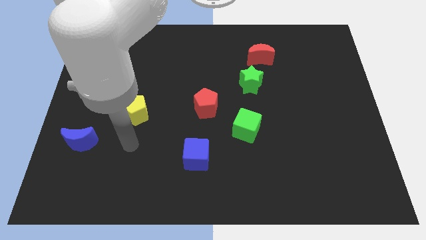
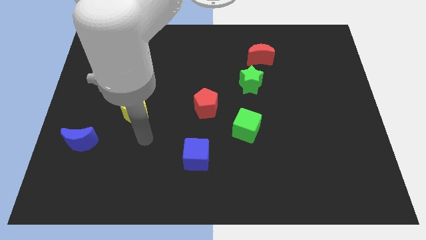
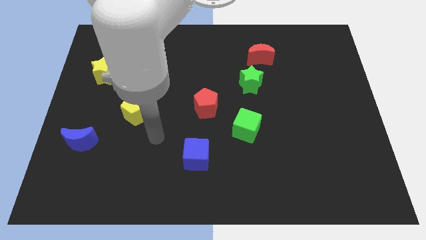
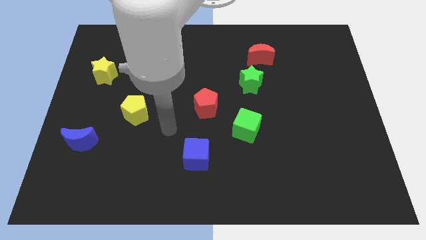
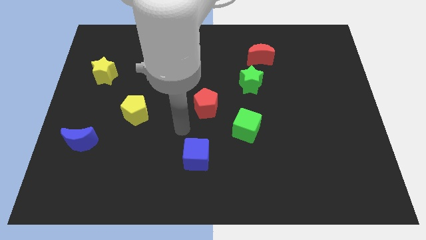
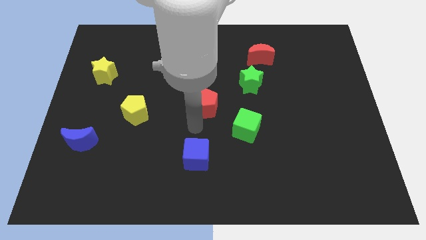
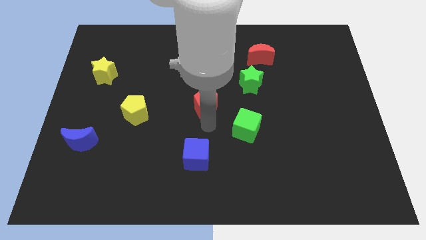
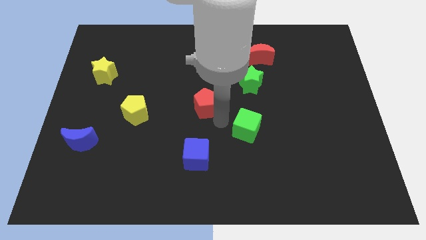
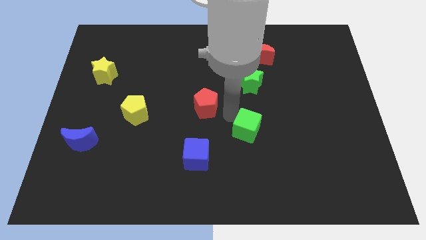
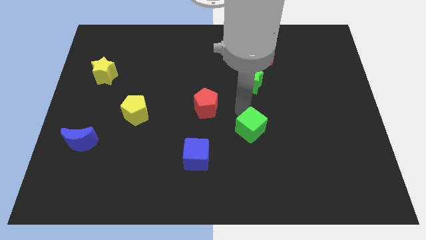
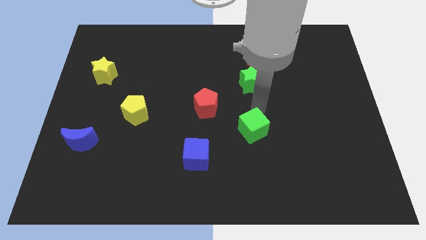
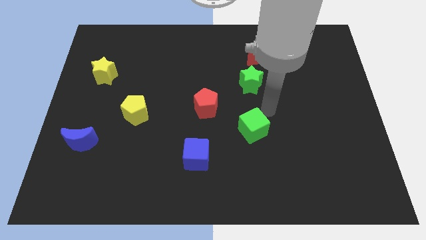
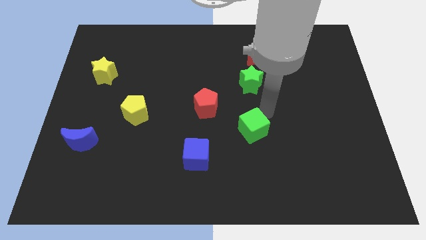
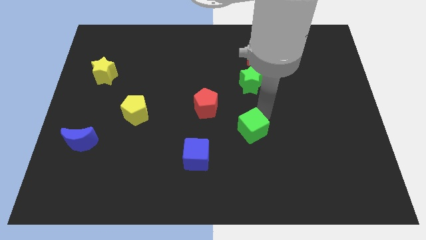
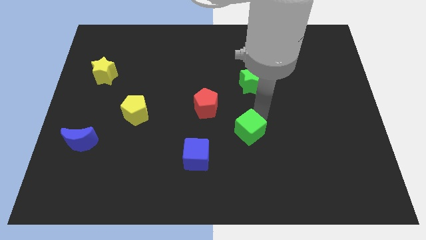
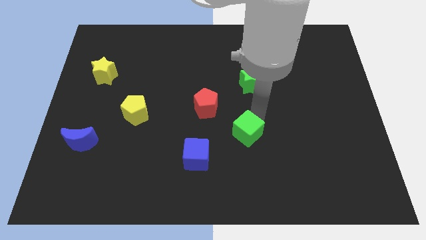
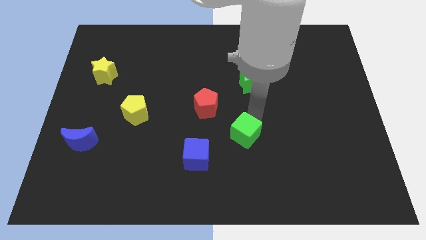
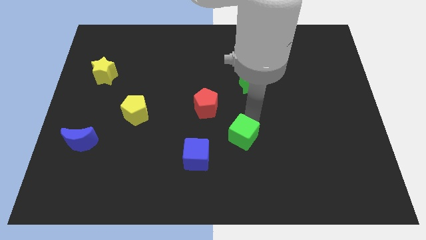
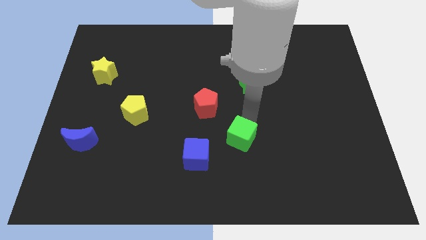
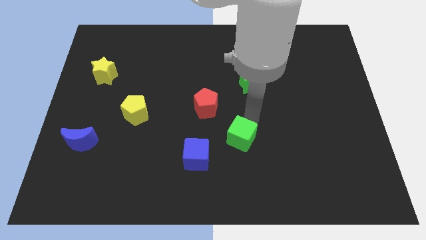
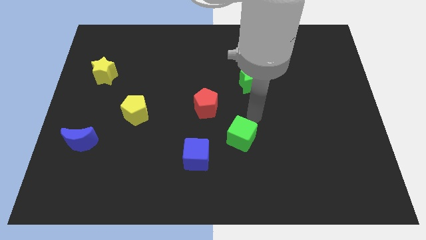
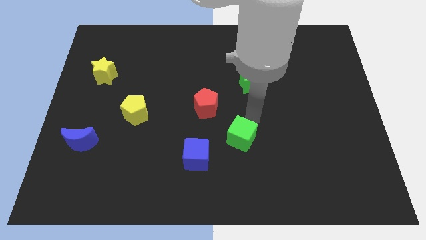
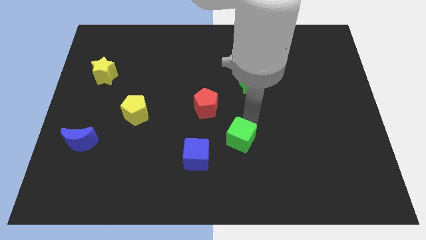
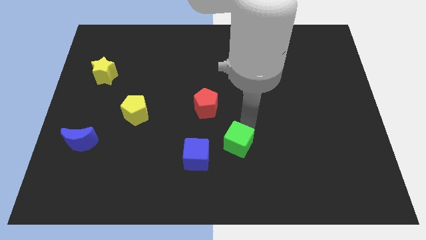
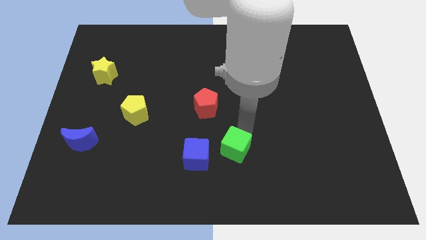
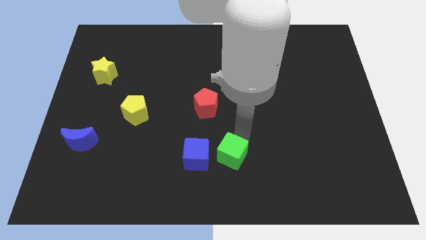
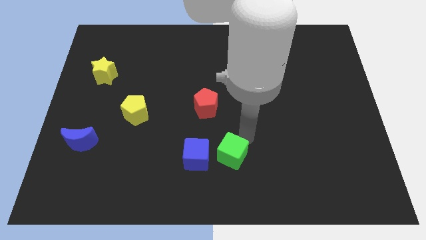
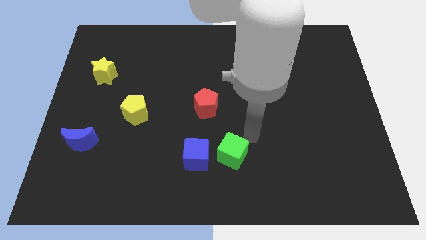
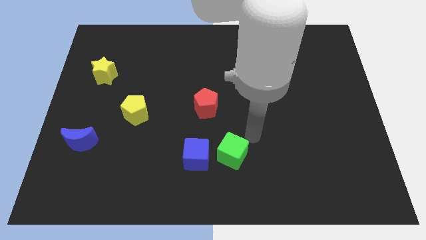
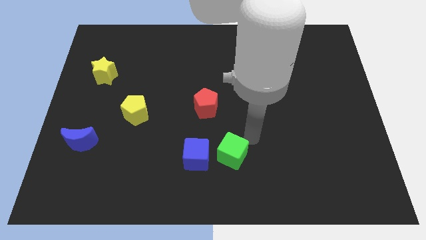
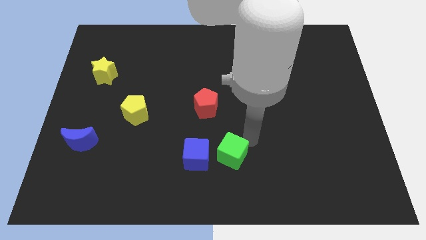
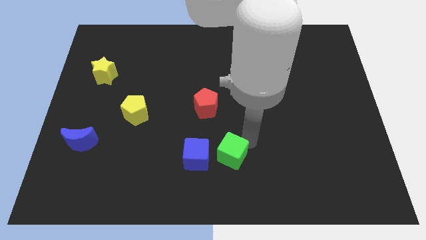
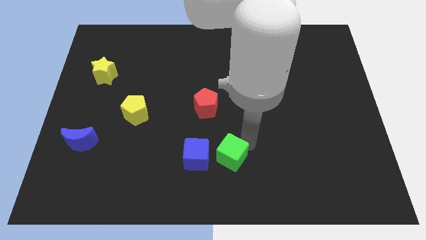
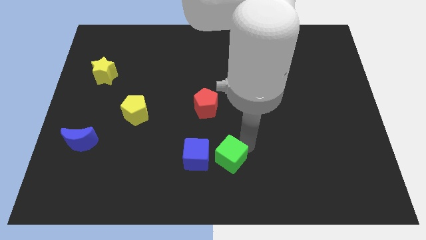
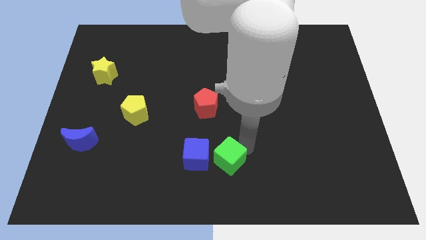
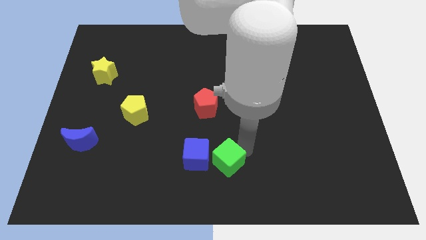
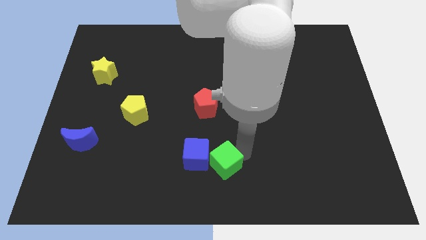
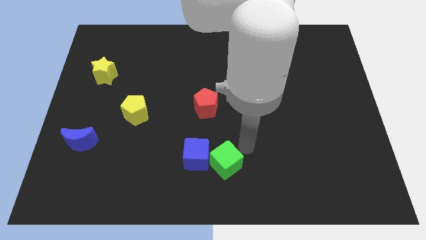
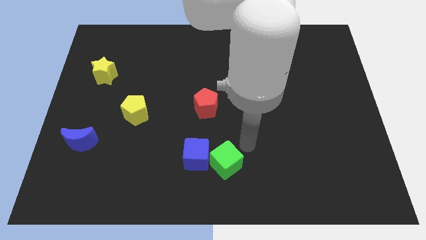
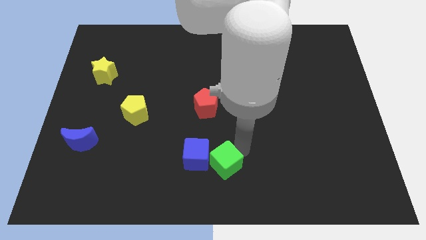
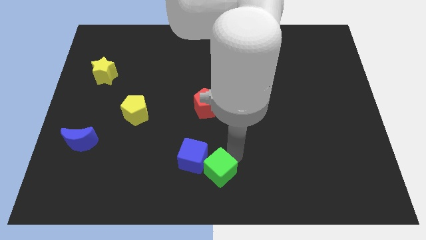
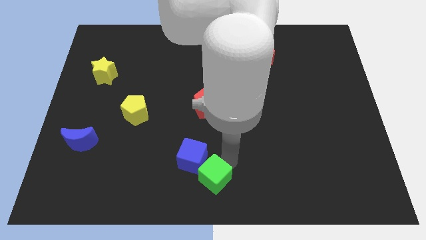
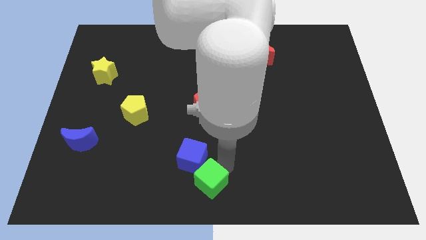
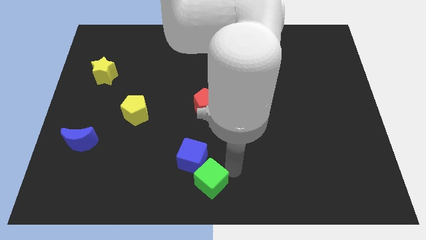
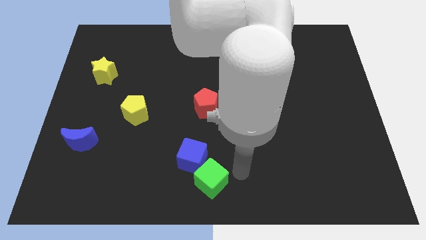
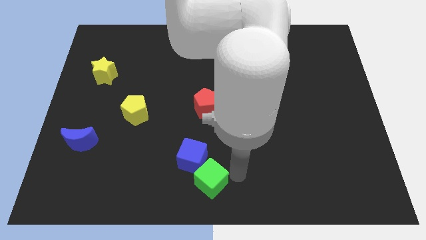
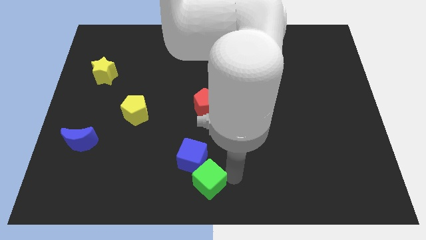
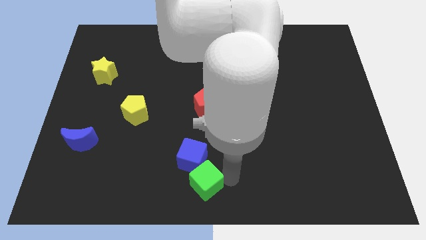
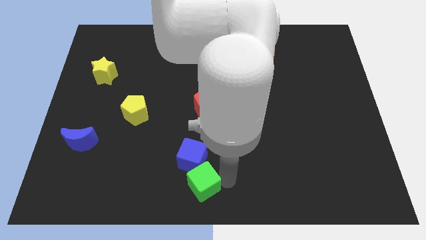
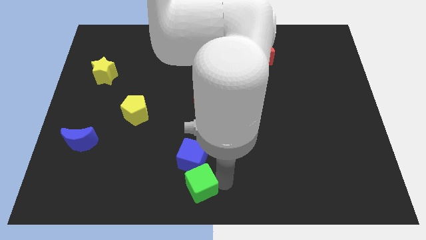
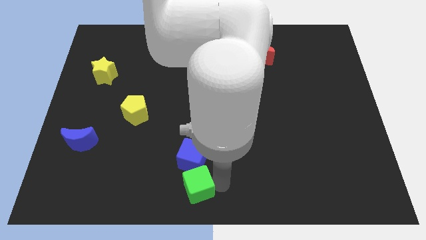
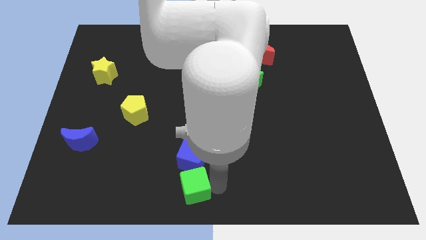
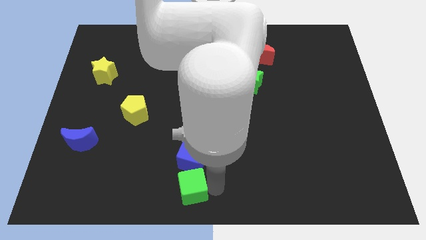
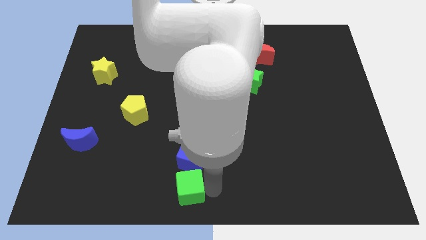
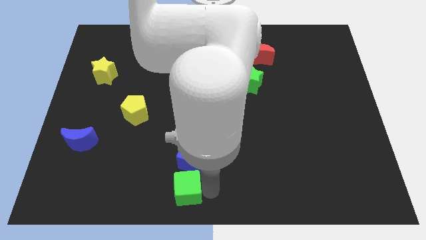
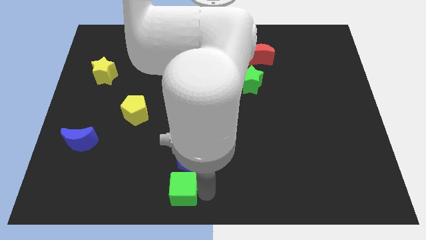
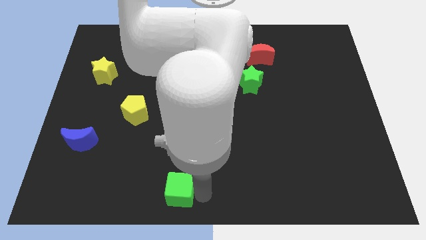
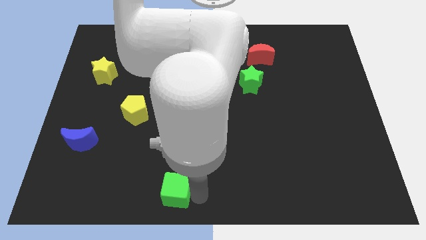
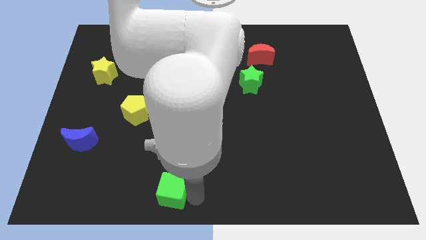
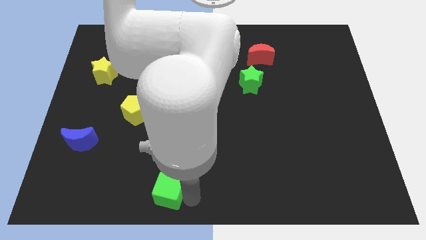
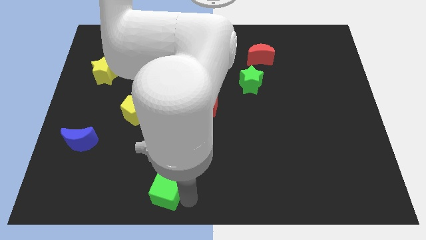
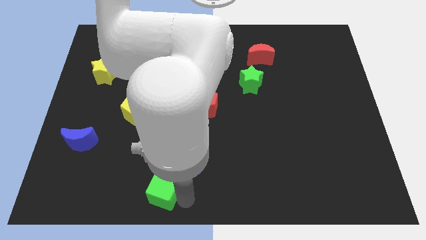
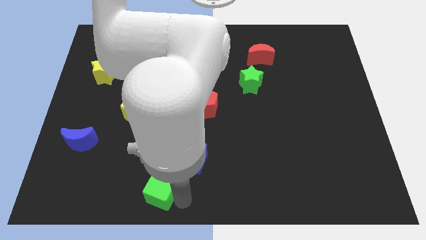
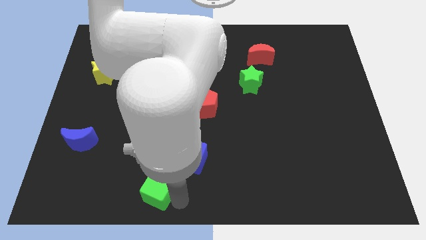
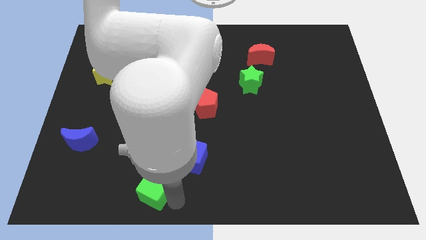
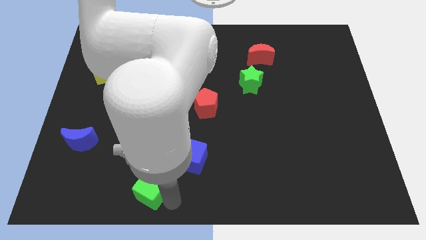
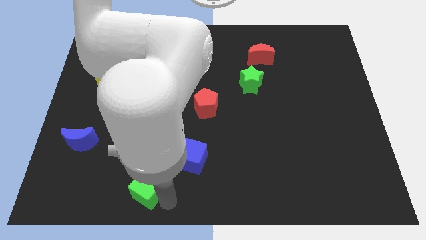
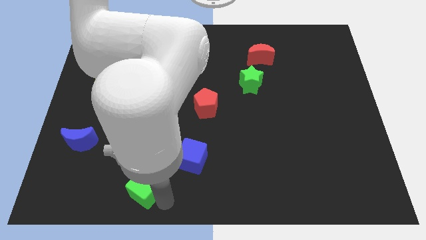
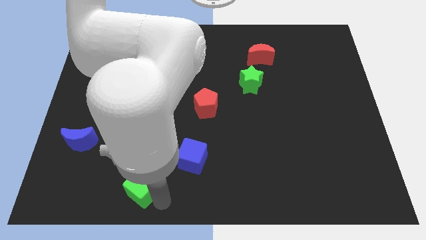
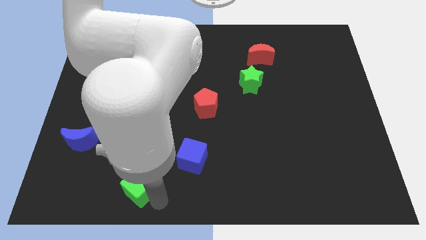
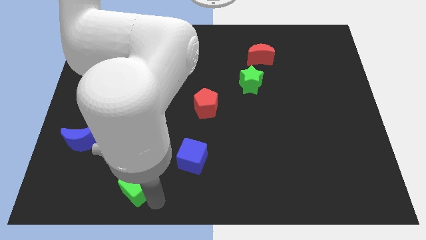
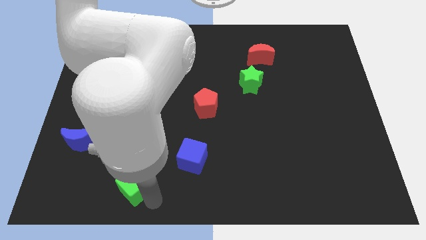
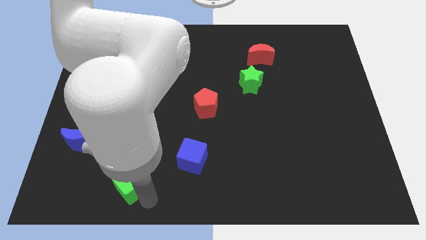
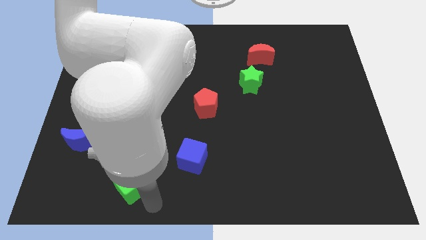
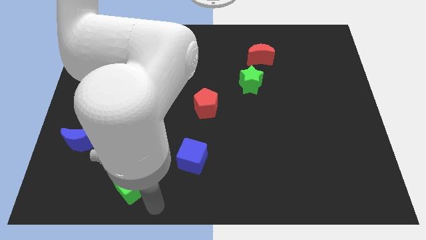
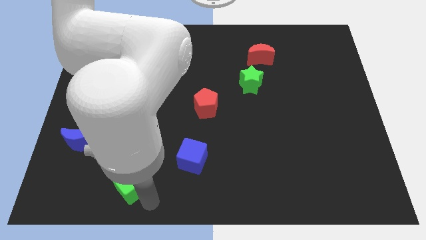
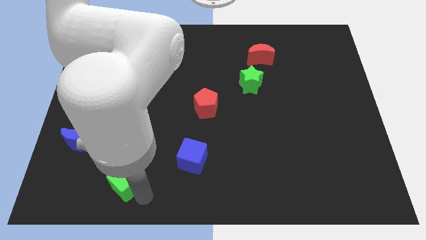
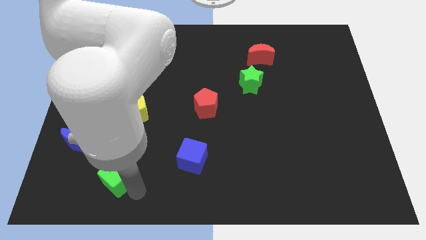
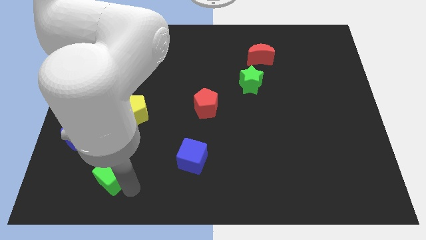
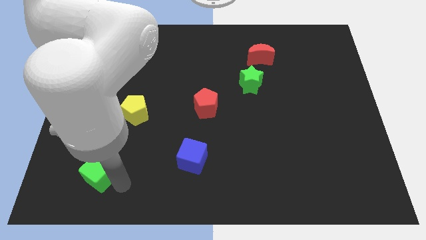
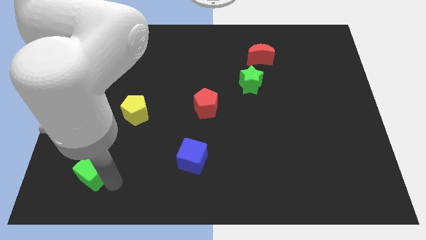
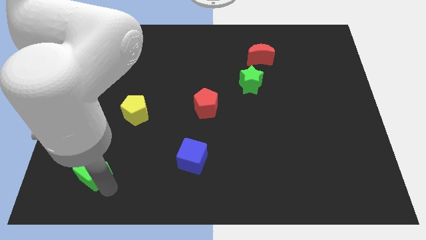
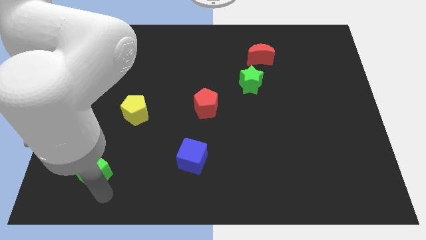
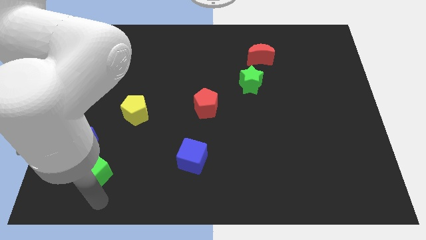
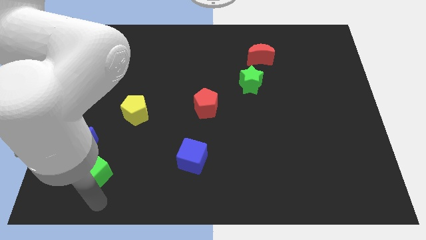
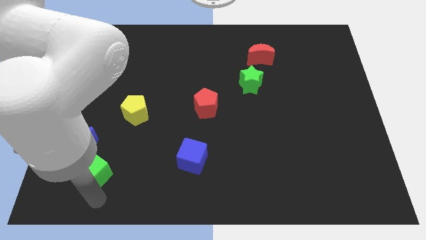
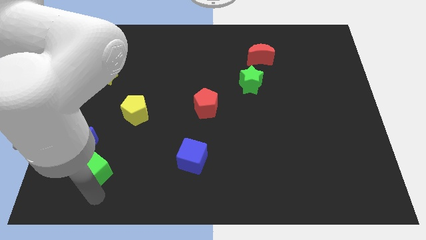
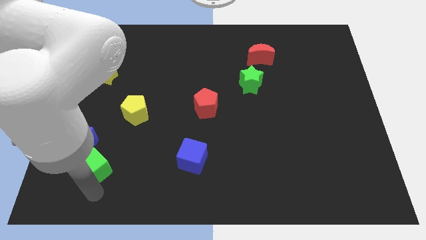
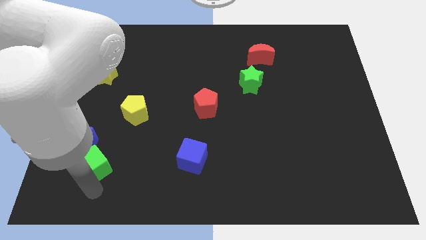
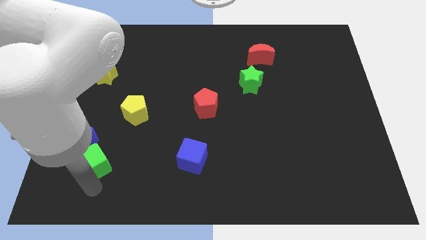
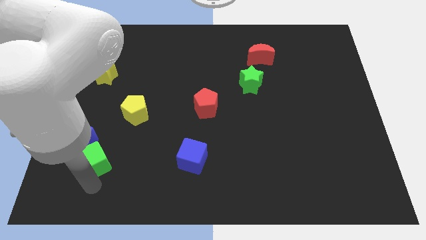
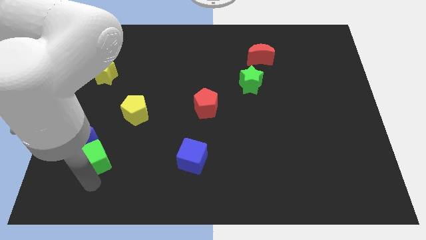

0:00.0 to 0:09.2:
push the green cube to the blue moon
